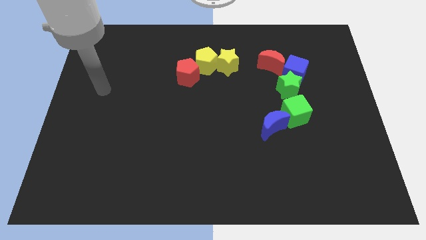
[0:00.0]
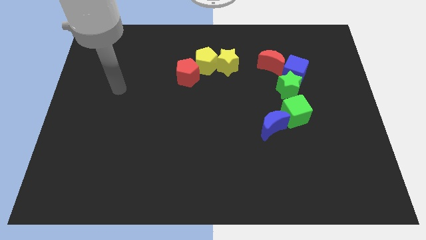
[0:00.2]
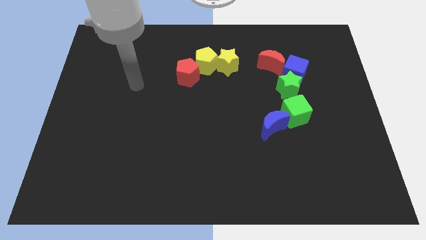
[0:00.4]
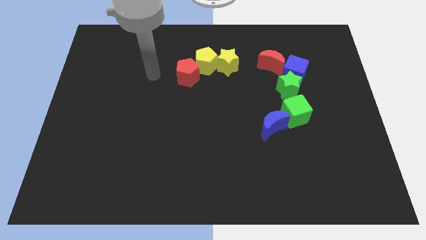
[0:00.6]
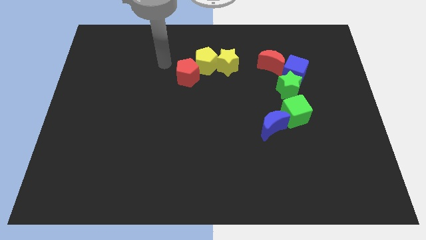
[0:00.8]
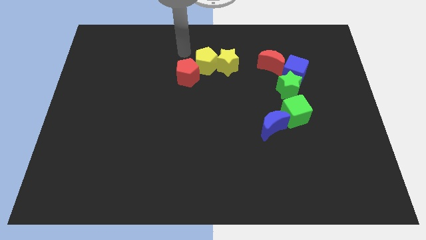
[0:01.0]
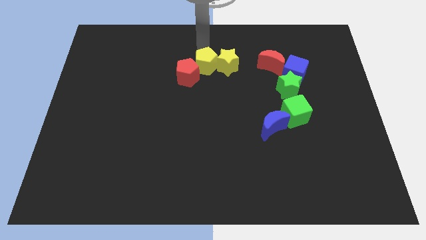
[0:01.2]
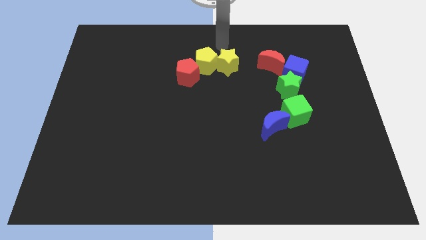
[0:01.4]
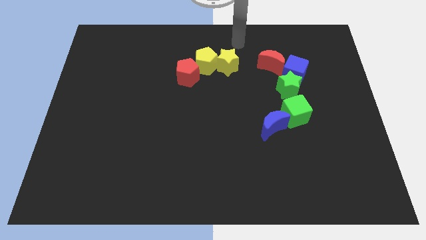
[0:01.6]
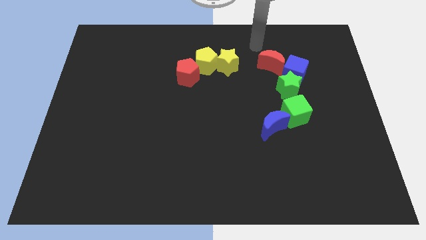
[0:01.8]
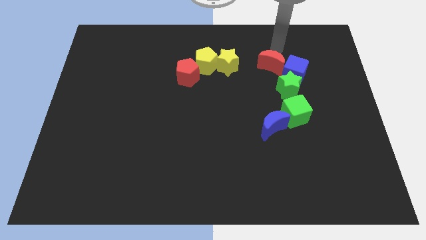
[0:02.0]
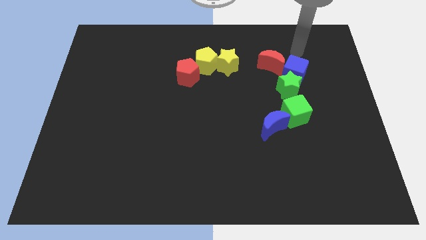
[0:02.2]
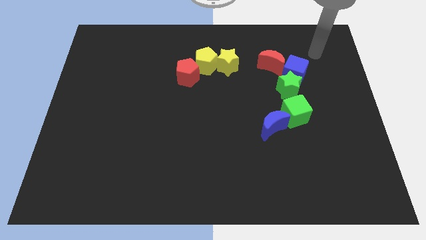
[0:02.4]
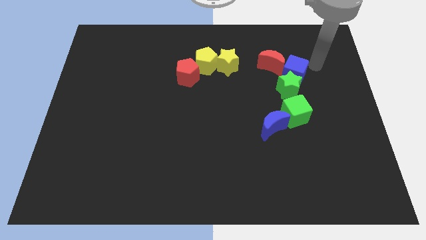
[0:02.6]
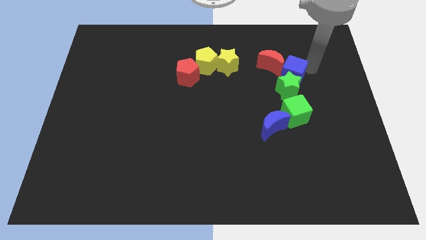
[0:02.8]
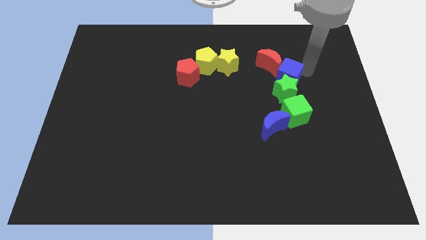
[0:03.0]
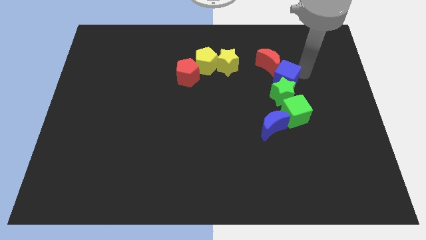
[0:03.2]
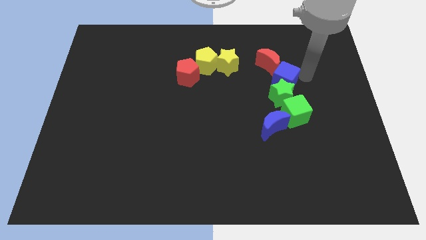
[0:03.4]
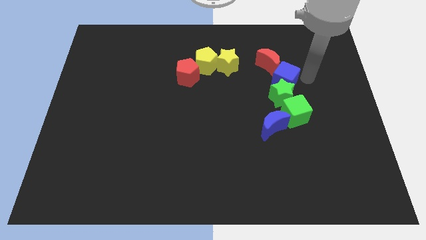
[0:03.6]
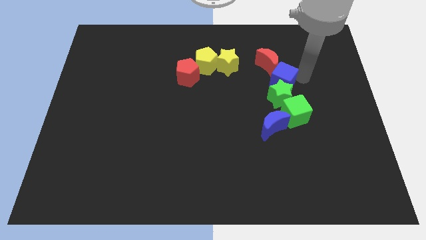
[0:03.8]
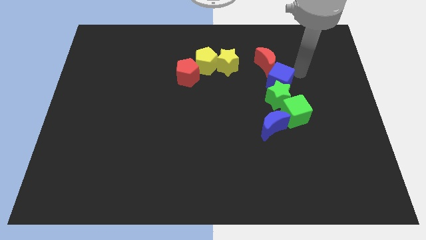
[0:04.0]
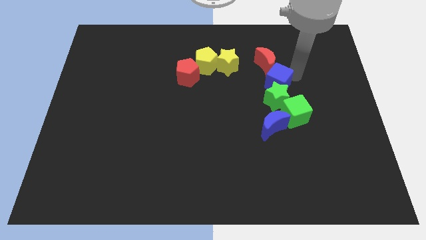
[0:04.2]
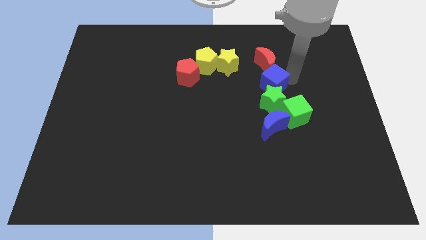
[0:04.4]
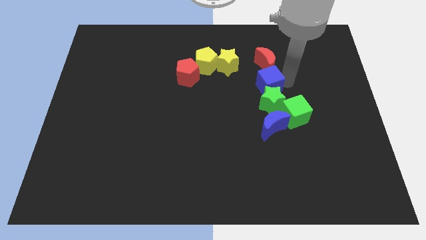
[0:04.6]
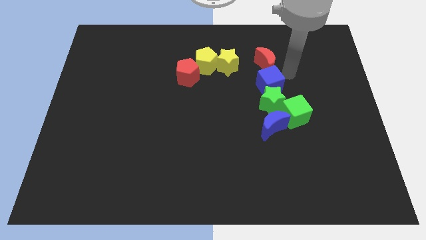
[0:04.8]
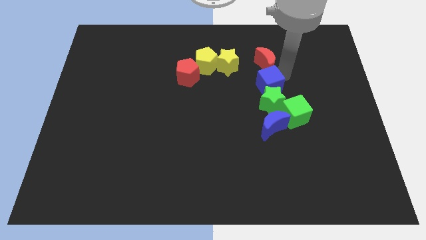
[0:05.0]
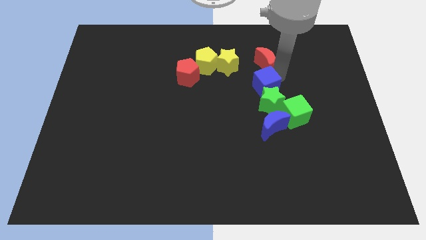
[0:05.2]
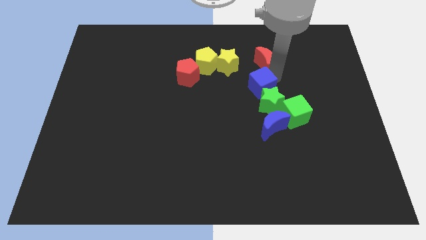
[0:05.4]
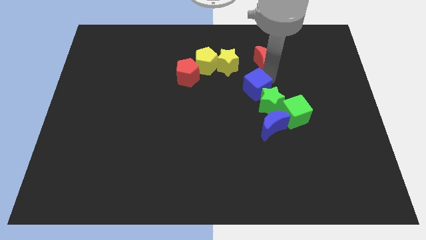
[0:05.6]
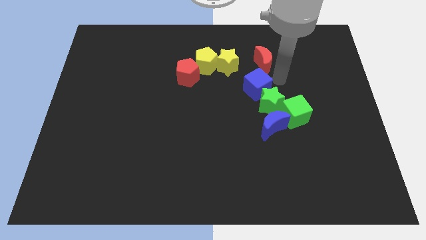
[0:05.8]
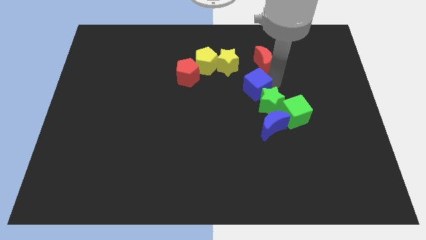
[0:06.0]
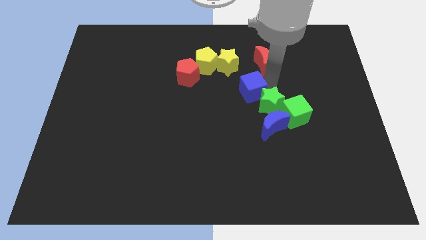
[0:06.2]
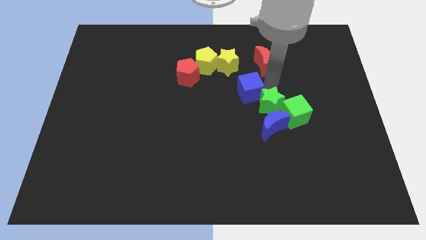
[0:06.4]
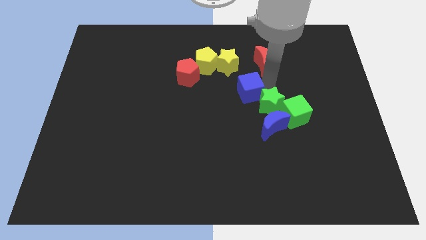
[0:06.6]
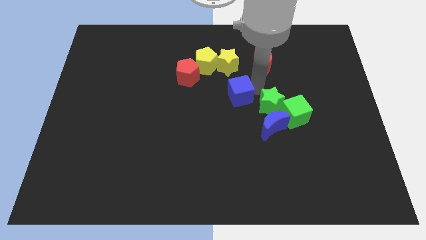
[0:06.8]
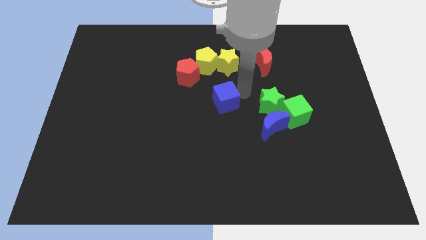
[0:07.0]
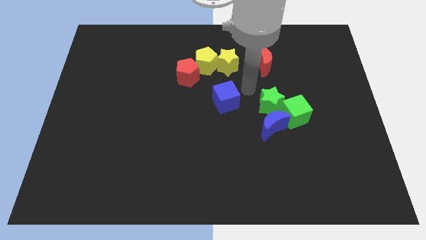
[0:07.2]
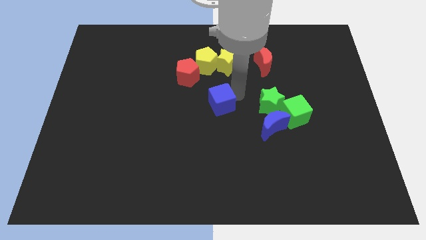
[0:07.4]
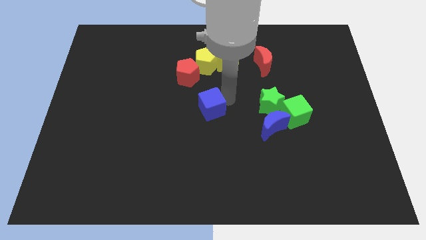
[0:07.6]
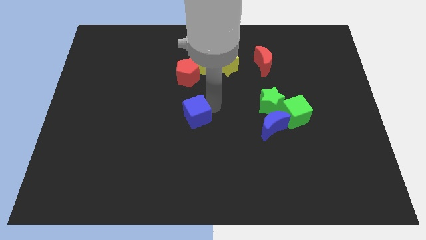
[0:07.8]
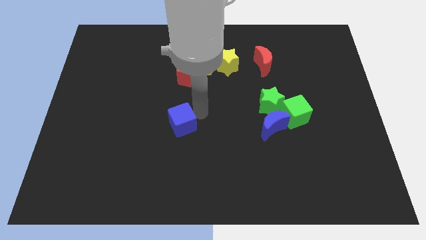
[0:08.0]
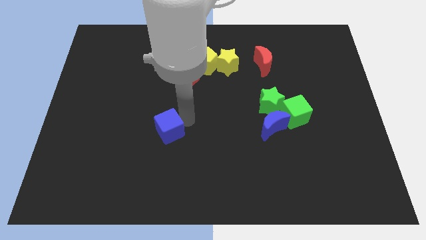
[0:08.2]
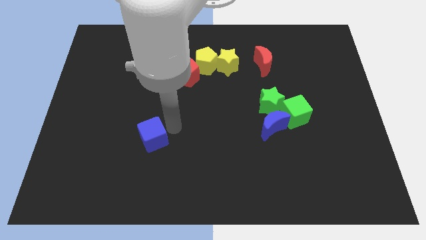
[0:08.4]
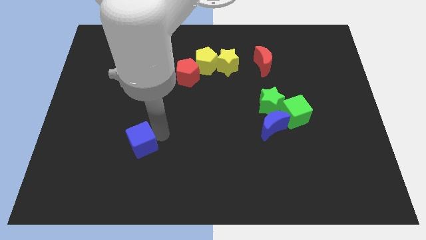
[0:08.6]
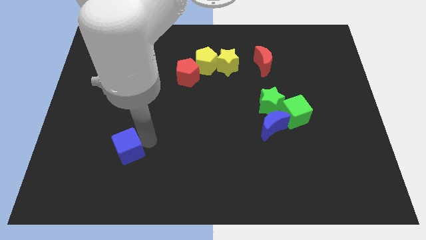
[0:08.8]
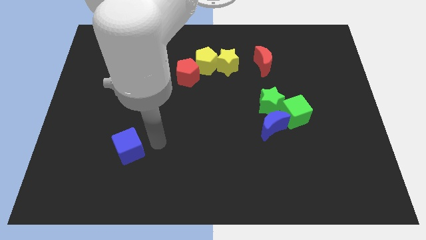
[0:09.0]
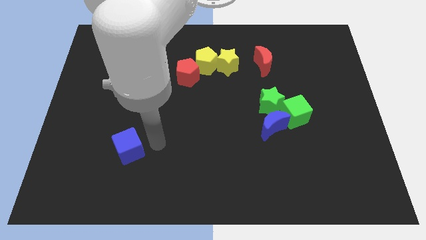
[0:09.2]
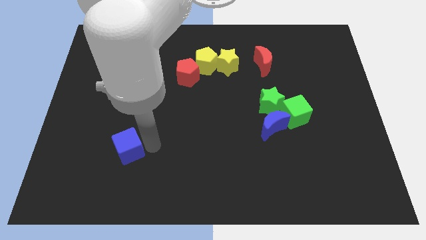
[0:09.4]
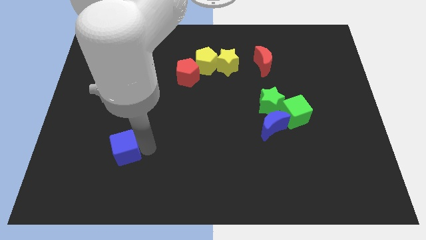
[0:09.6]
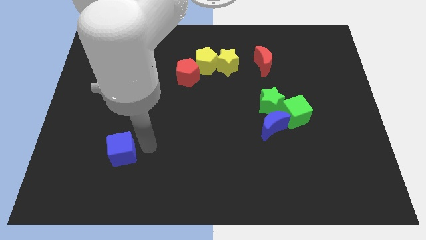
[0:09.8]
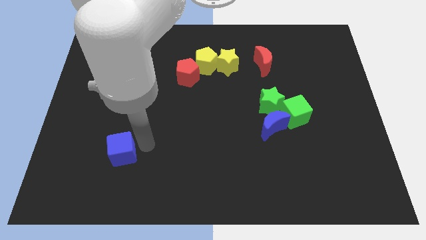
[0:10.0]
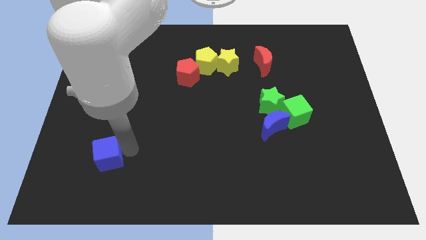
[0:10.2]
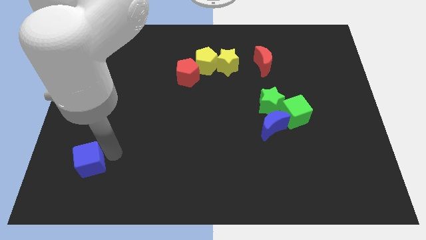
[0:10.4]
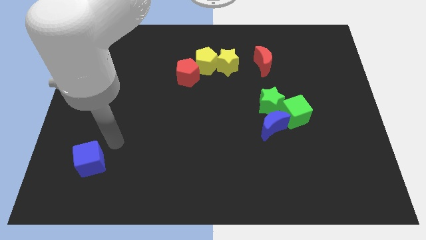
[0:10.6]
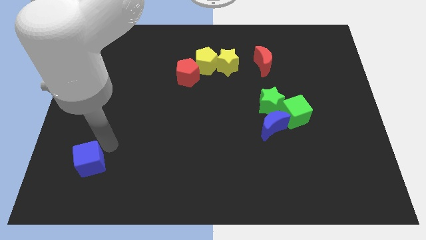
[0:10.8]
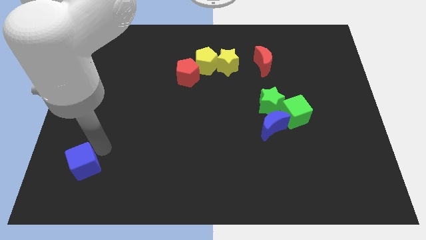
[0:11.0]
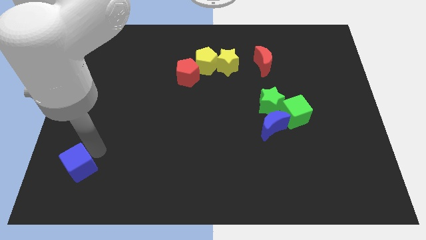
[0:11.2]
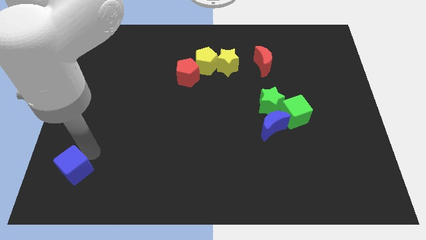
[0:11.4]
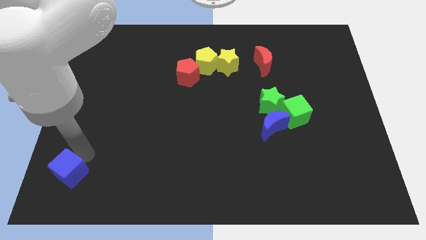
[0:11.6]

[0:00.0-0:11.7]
push the blue cube to the bottom left corner

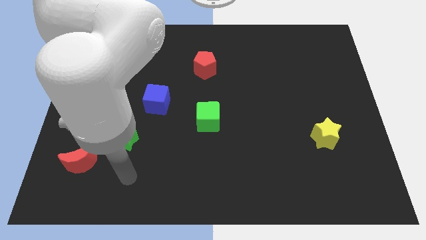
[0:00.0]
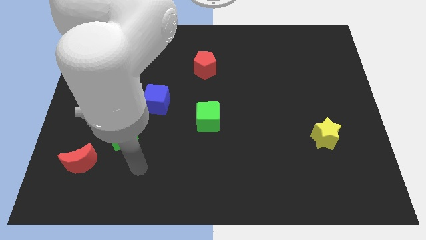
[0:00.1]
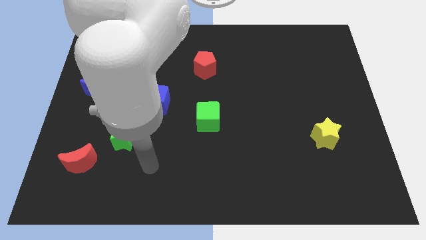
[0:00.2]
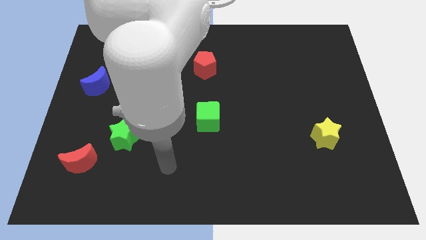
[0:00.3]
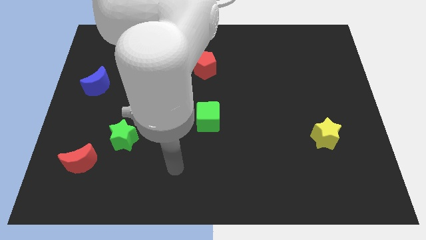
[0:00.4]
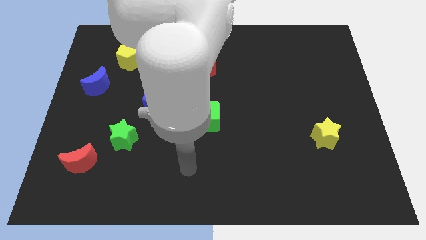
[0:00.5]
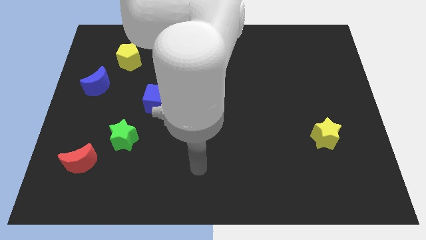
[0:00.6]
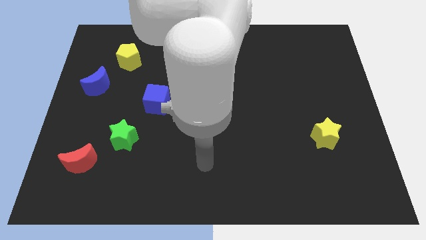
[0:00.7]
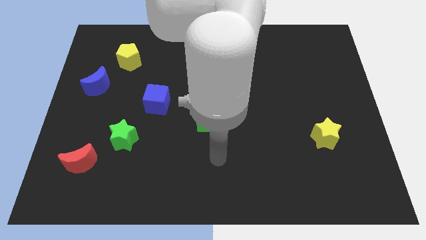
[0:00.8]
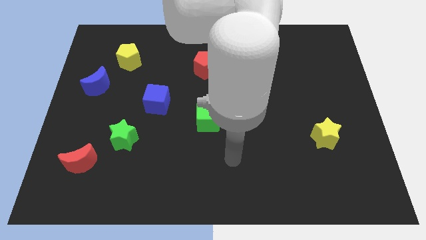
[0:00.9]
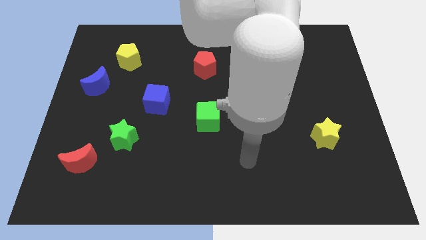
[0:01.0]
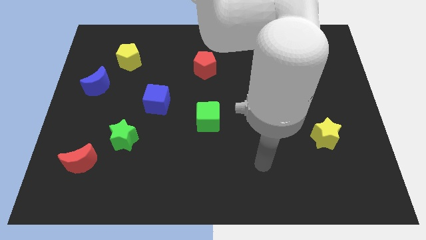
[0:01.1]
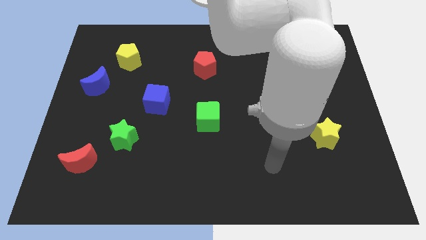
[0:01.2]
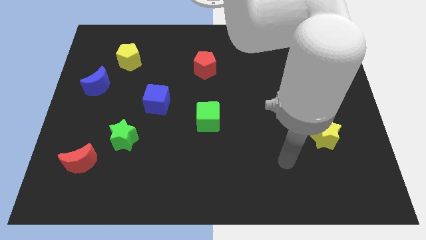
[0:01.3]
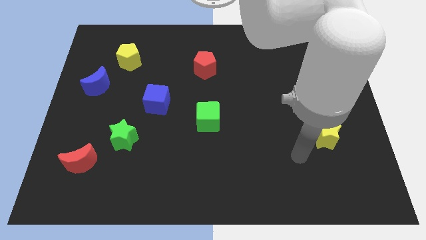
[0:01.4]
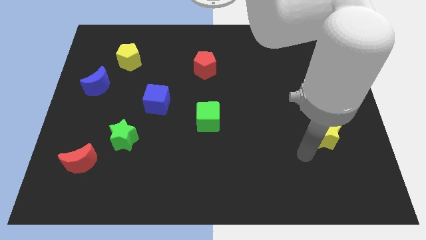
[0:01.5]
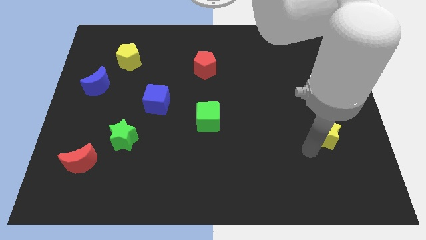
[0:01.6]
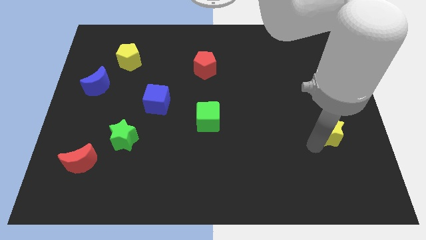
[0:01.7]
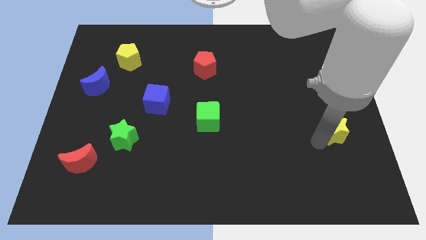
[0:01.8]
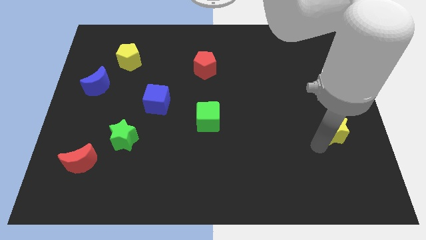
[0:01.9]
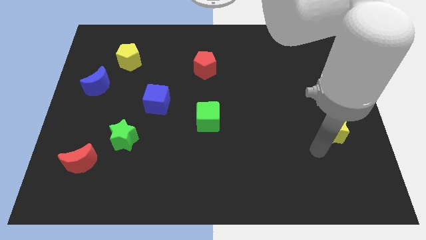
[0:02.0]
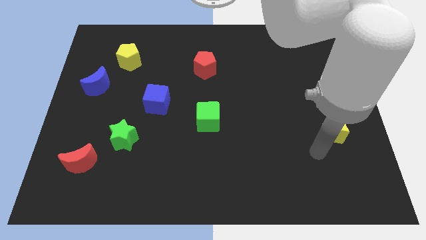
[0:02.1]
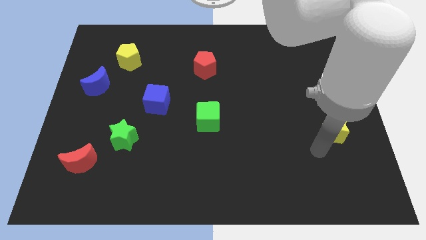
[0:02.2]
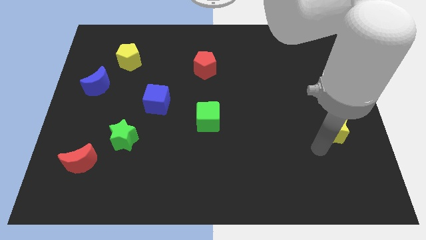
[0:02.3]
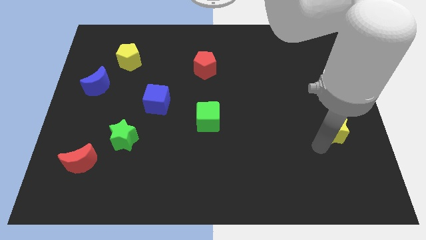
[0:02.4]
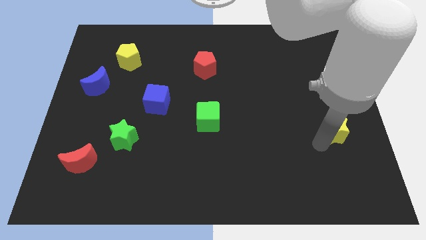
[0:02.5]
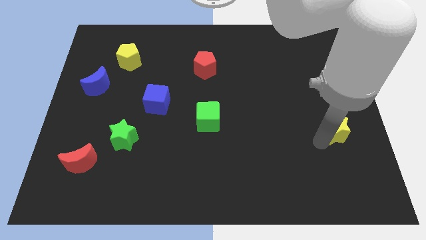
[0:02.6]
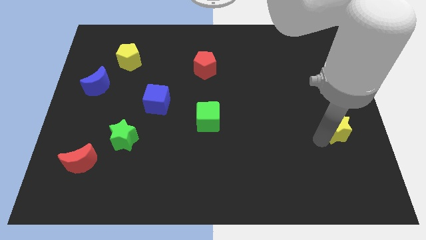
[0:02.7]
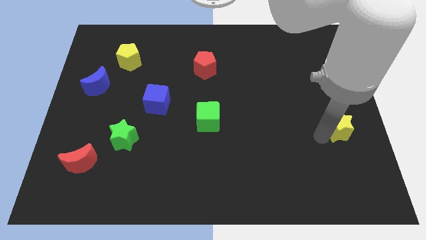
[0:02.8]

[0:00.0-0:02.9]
move the yellow star to the right side of the board
